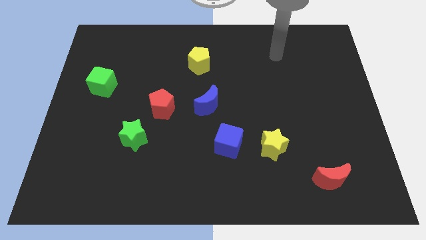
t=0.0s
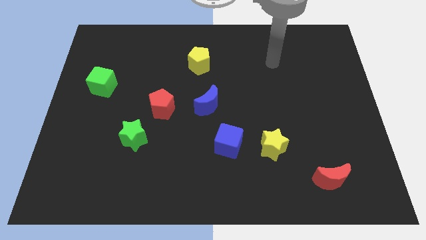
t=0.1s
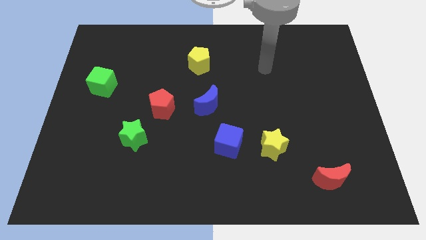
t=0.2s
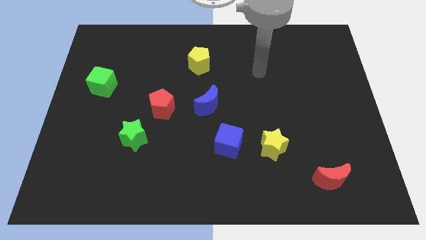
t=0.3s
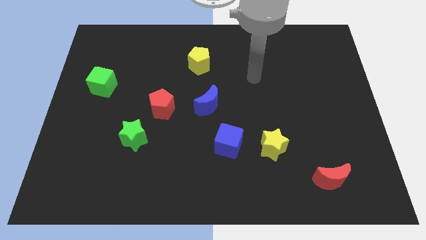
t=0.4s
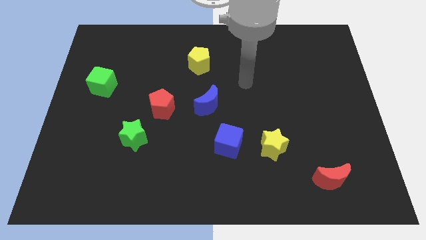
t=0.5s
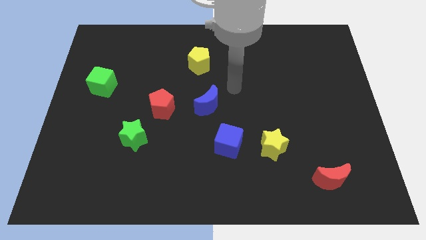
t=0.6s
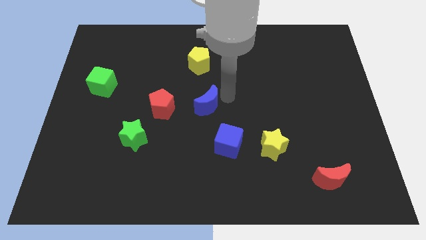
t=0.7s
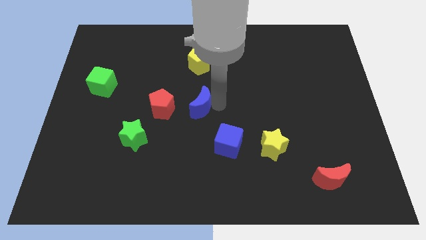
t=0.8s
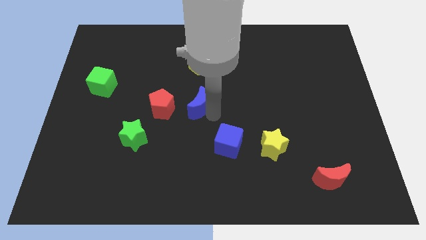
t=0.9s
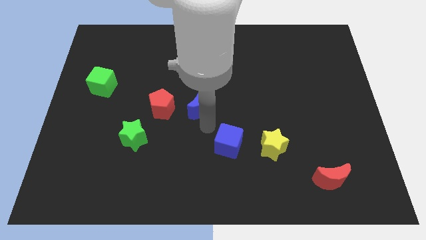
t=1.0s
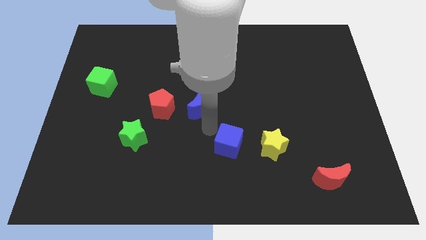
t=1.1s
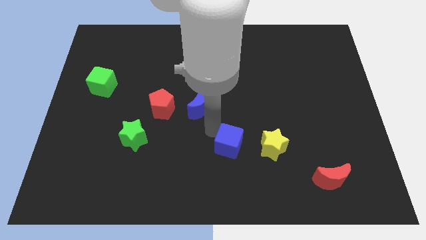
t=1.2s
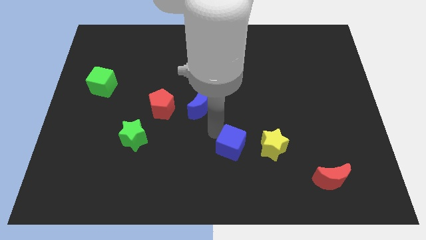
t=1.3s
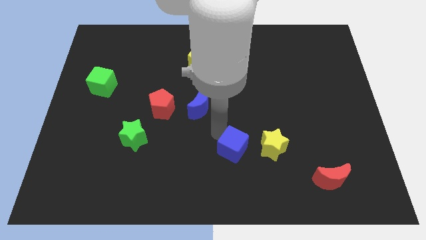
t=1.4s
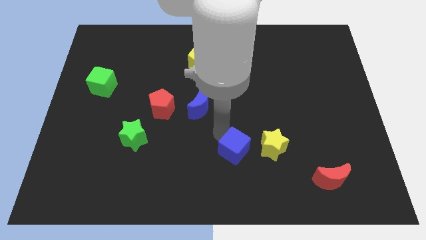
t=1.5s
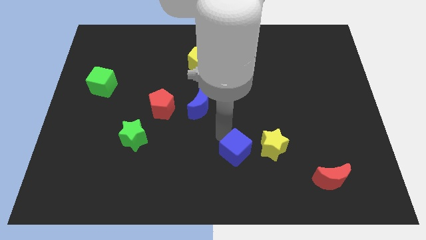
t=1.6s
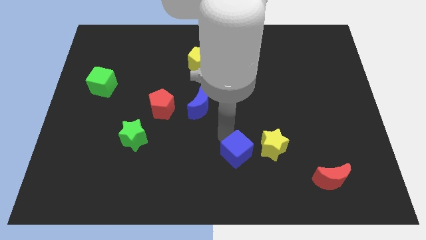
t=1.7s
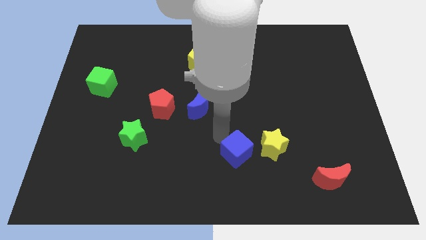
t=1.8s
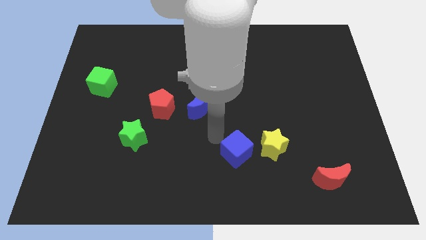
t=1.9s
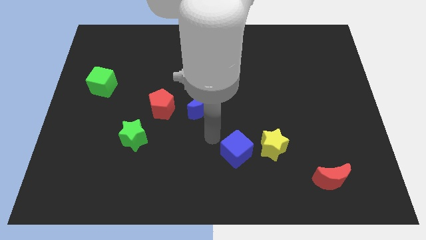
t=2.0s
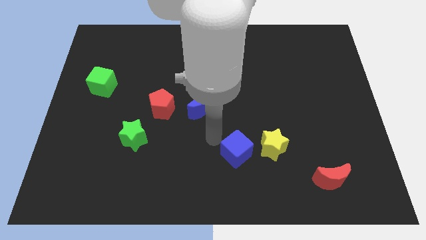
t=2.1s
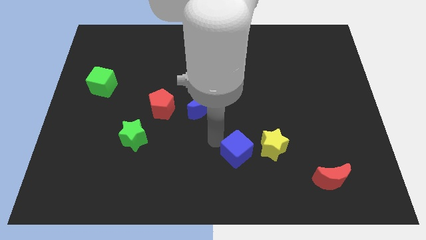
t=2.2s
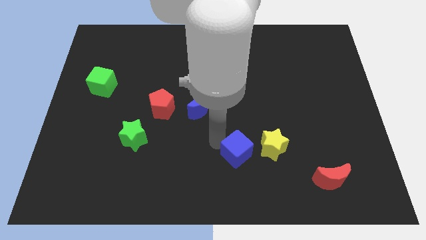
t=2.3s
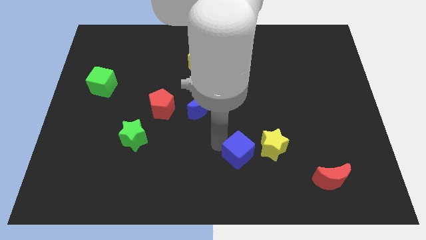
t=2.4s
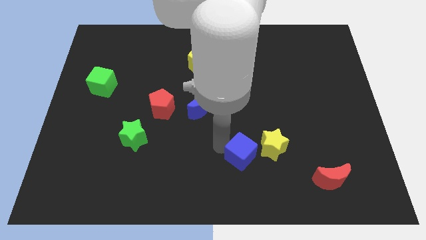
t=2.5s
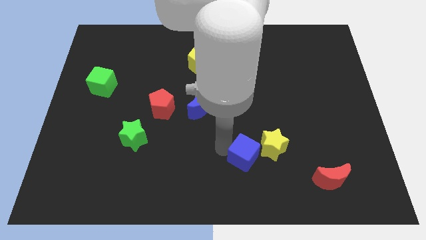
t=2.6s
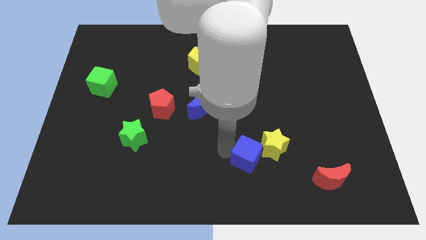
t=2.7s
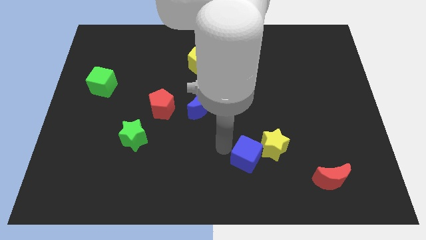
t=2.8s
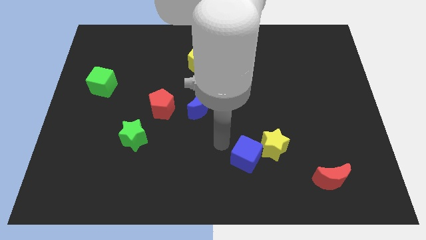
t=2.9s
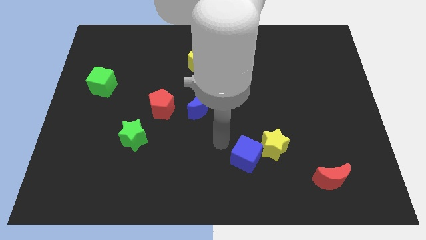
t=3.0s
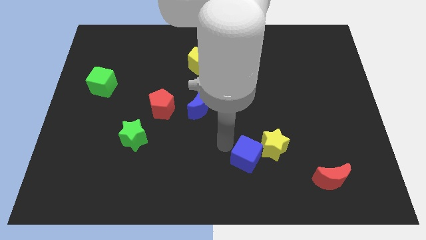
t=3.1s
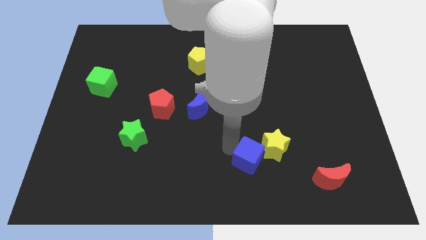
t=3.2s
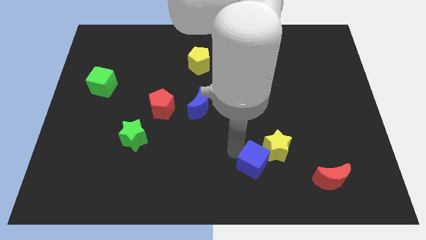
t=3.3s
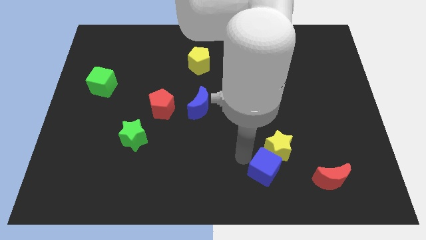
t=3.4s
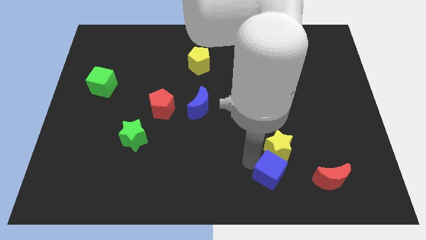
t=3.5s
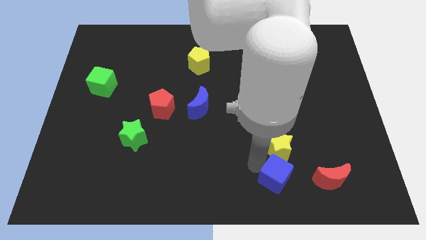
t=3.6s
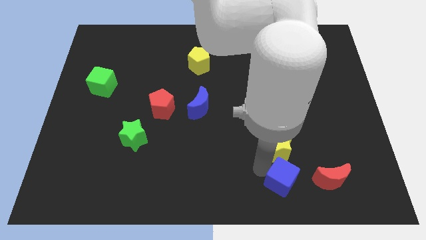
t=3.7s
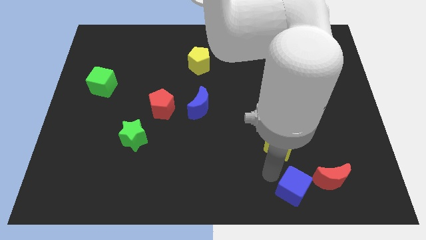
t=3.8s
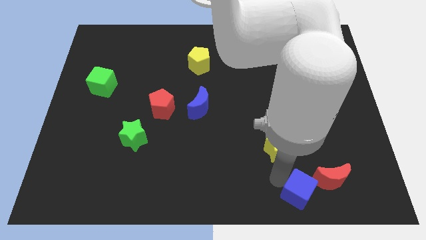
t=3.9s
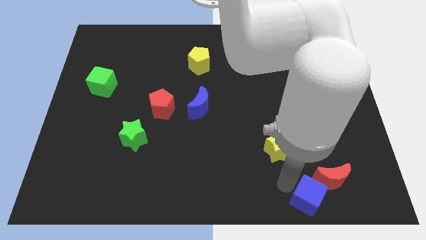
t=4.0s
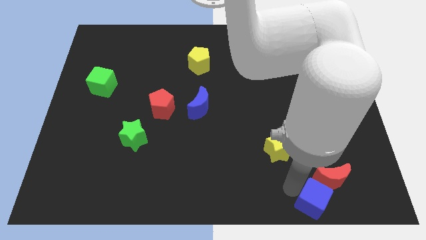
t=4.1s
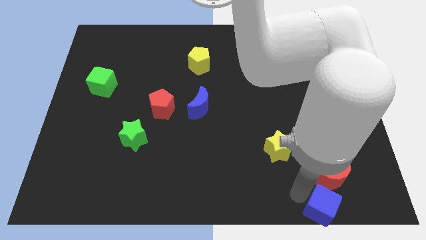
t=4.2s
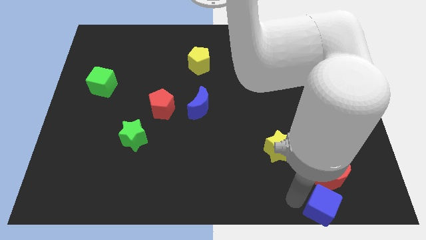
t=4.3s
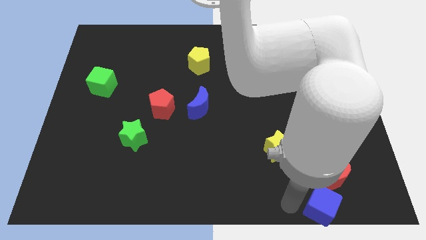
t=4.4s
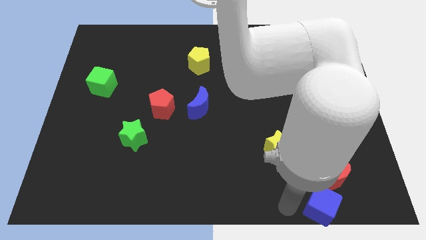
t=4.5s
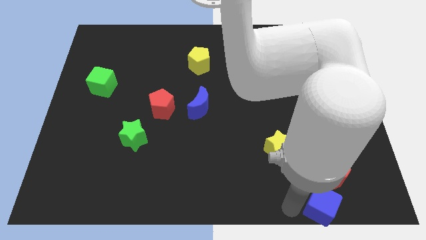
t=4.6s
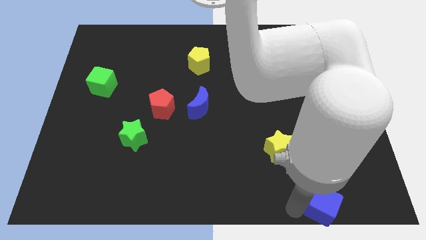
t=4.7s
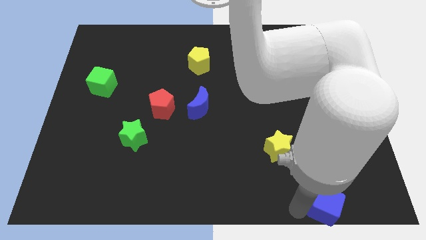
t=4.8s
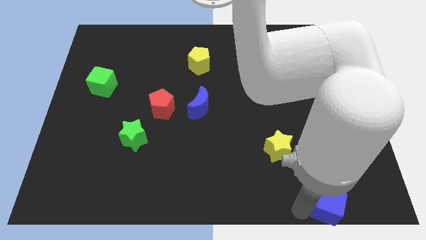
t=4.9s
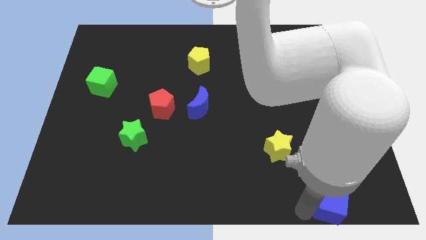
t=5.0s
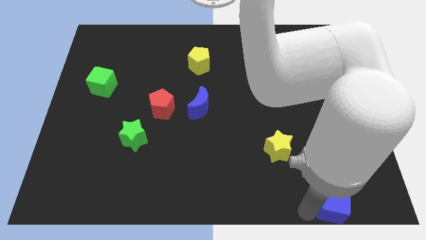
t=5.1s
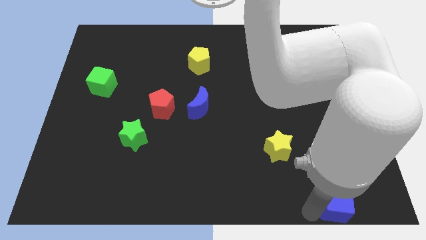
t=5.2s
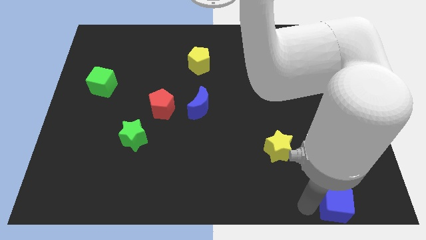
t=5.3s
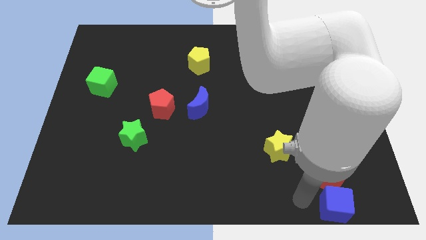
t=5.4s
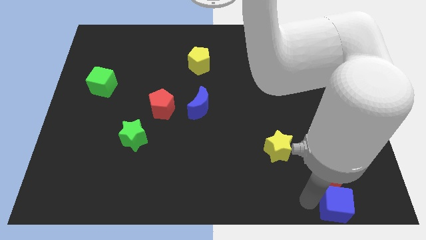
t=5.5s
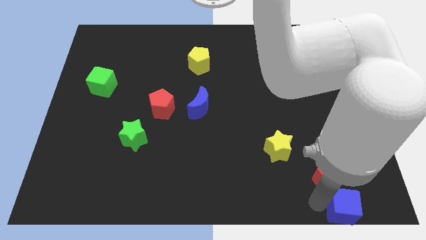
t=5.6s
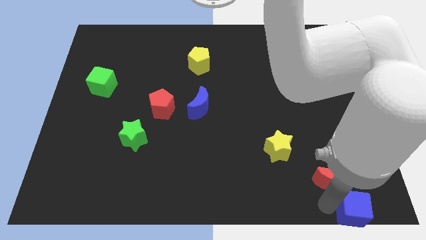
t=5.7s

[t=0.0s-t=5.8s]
slide the blue cube to the bottom right of the board

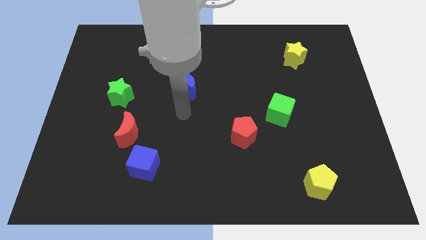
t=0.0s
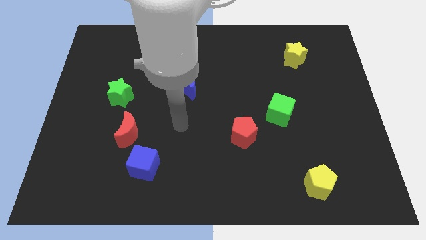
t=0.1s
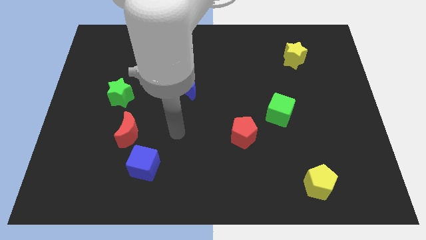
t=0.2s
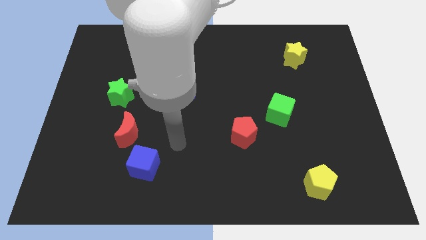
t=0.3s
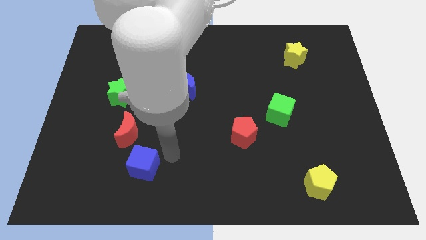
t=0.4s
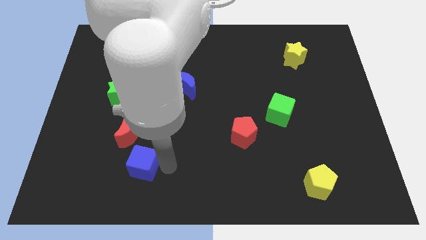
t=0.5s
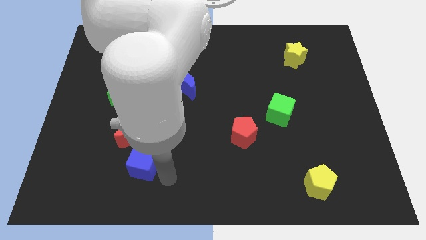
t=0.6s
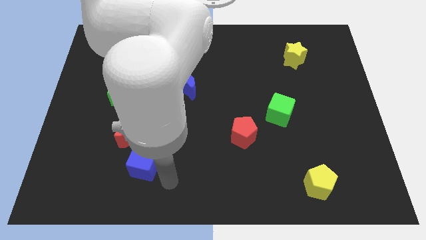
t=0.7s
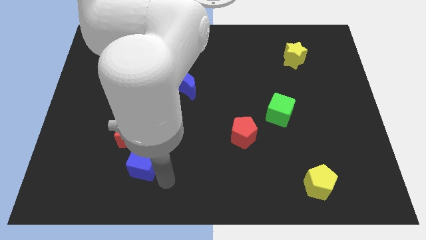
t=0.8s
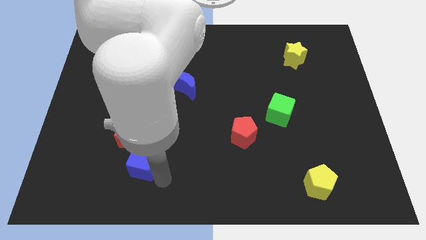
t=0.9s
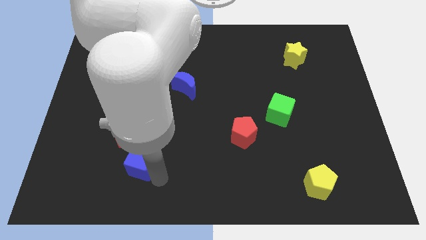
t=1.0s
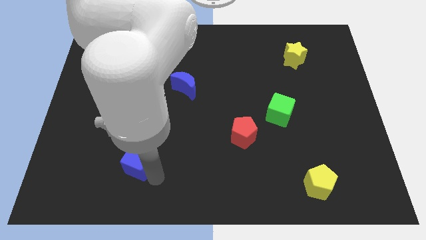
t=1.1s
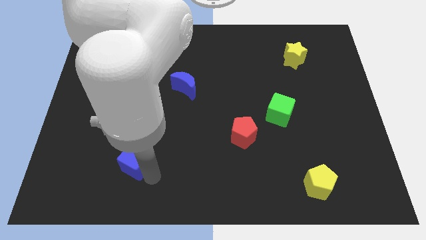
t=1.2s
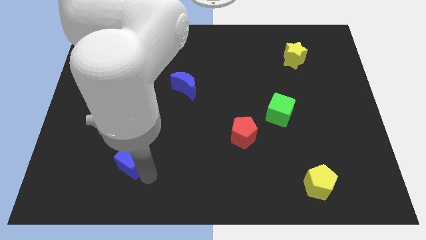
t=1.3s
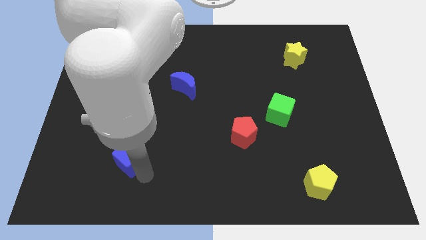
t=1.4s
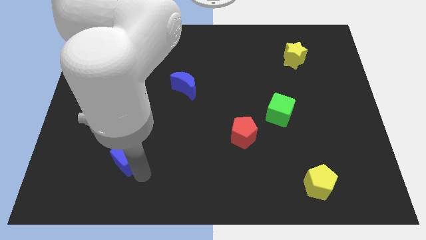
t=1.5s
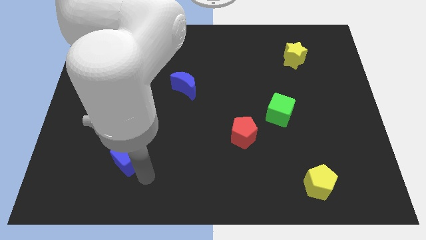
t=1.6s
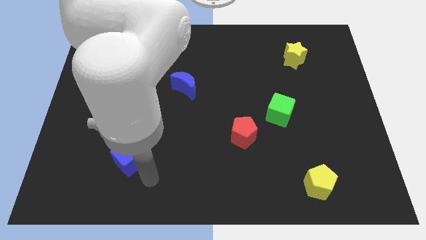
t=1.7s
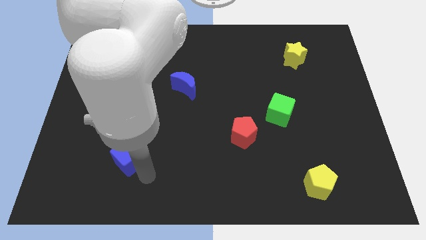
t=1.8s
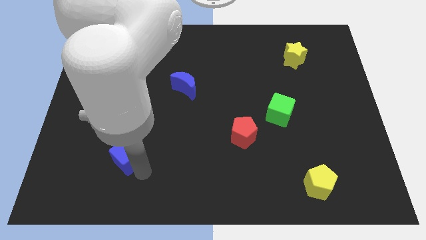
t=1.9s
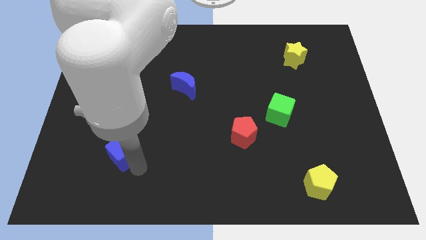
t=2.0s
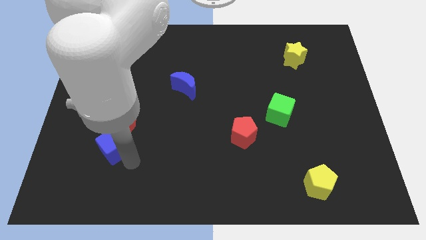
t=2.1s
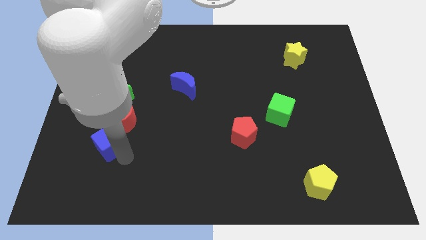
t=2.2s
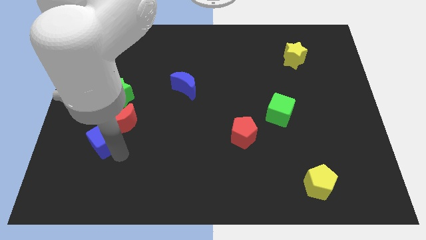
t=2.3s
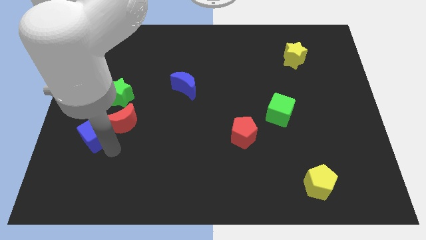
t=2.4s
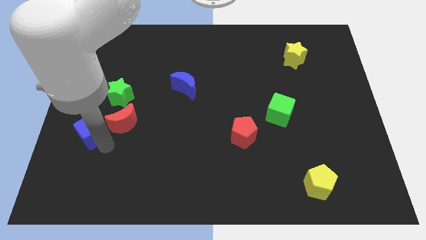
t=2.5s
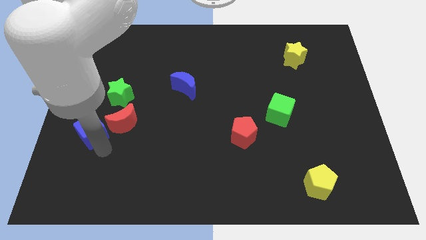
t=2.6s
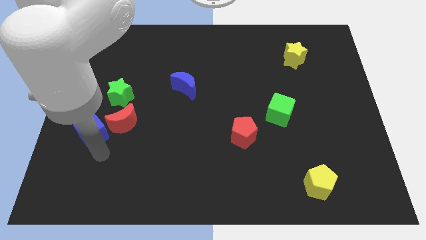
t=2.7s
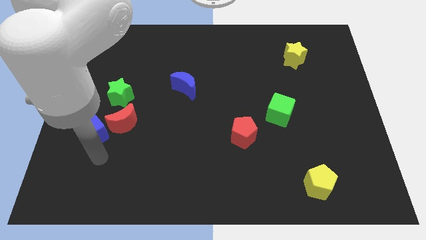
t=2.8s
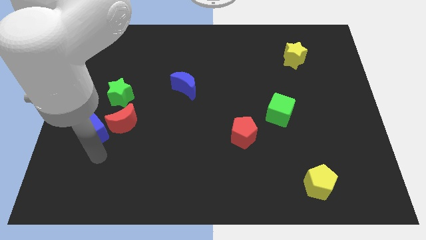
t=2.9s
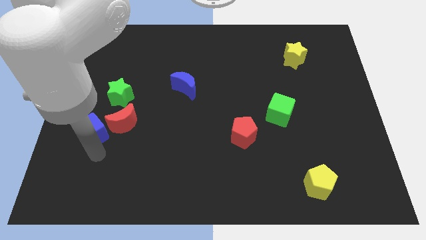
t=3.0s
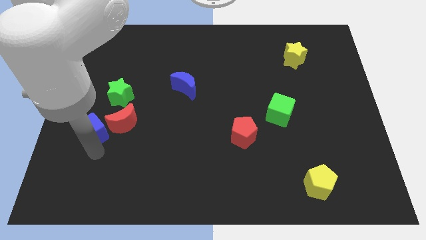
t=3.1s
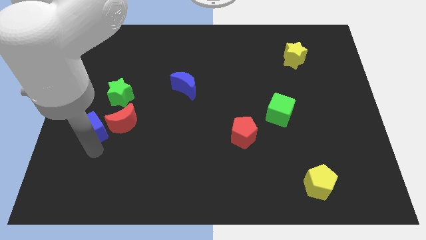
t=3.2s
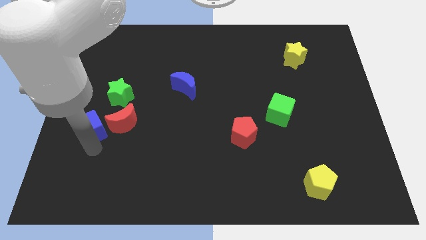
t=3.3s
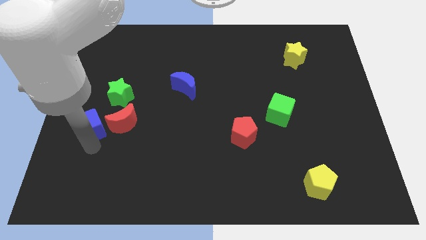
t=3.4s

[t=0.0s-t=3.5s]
move the blue cube to the left side
